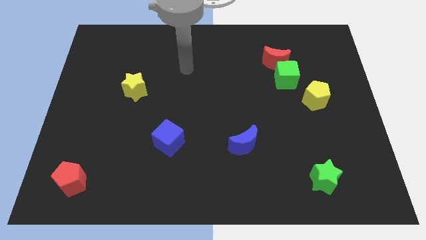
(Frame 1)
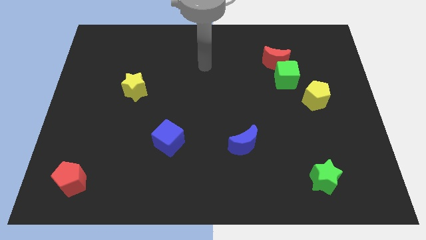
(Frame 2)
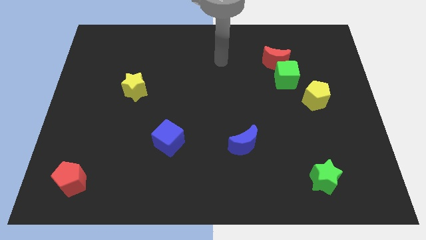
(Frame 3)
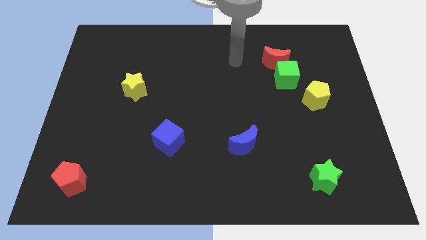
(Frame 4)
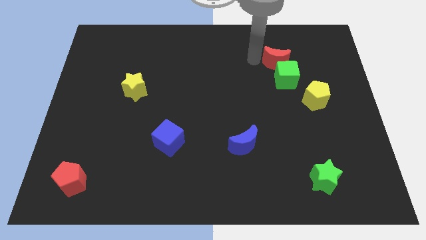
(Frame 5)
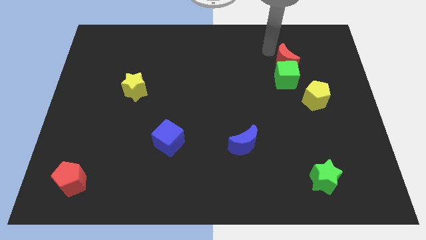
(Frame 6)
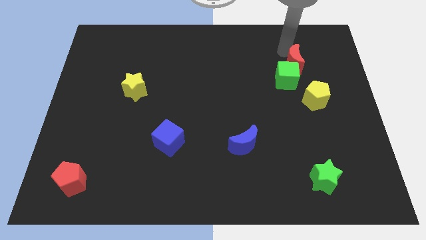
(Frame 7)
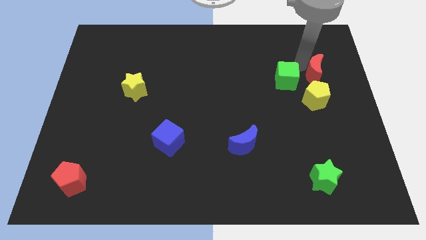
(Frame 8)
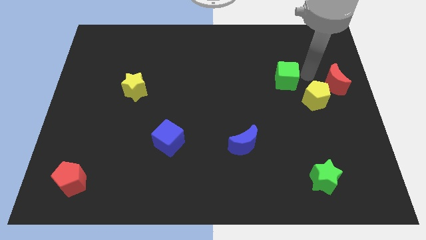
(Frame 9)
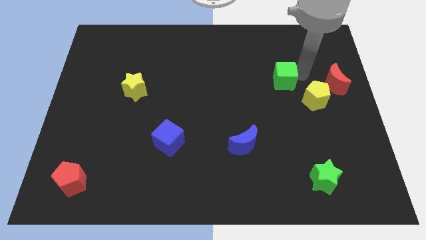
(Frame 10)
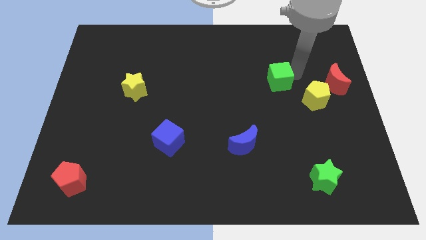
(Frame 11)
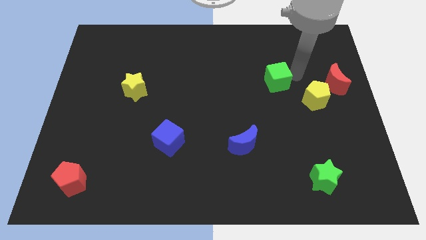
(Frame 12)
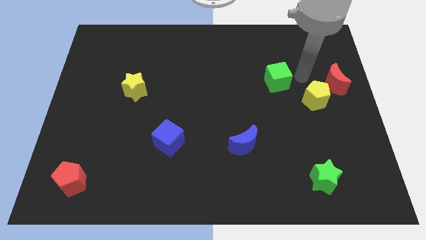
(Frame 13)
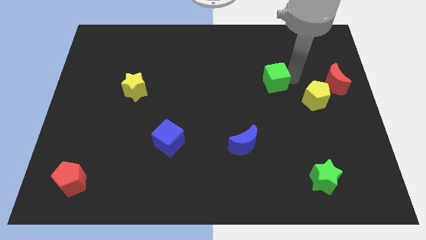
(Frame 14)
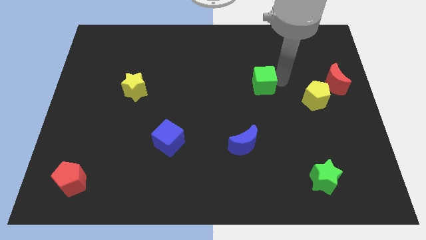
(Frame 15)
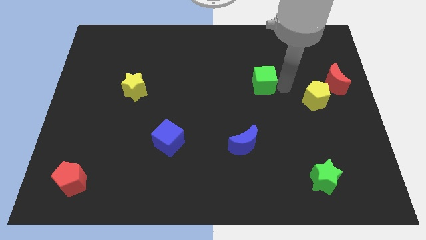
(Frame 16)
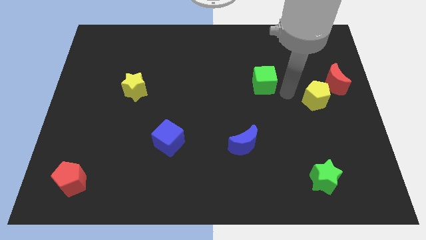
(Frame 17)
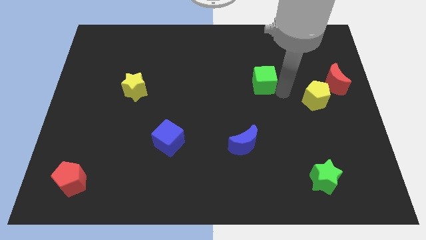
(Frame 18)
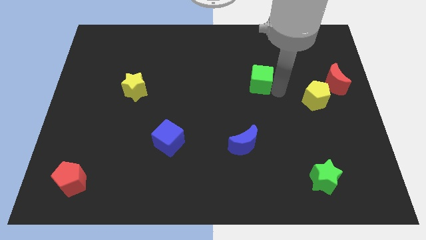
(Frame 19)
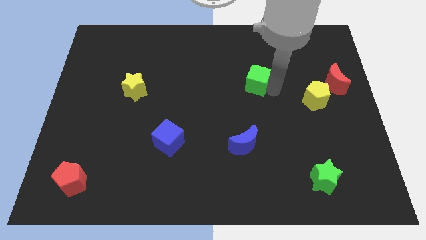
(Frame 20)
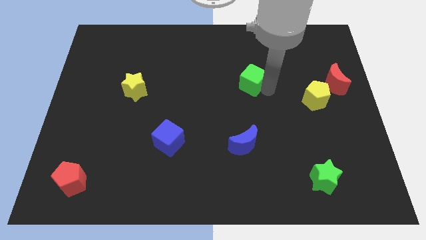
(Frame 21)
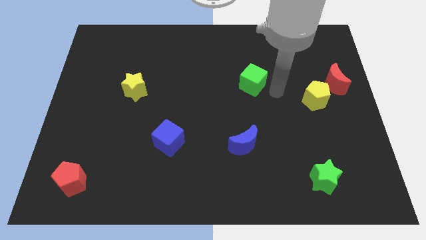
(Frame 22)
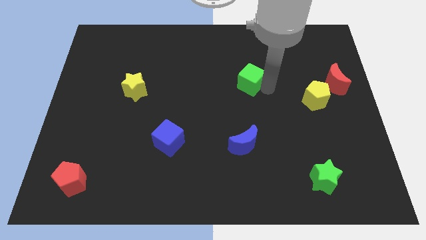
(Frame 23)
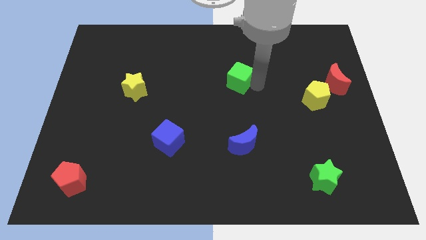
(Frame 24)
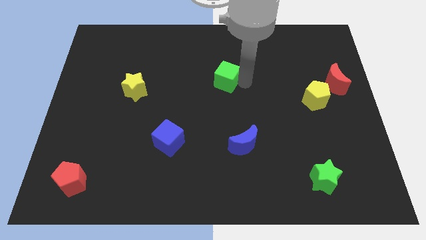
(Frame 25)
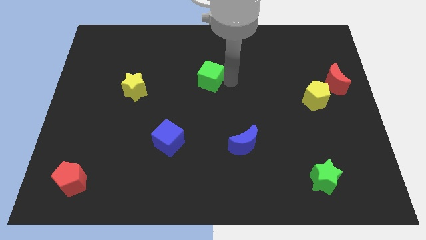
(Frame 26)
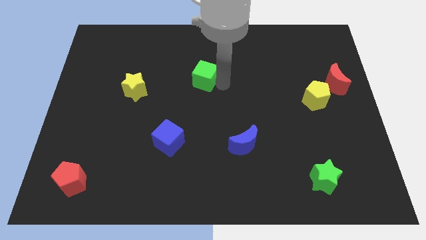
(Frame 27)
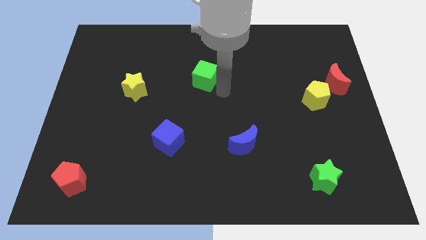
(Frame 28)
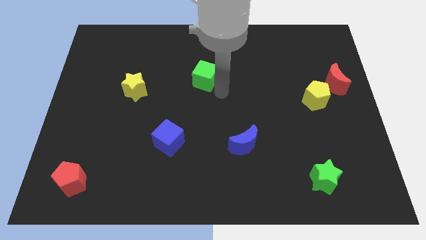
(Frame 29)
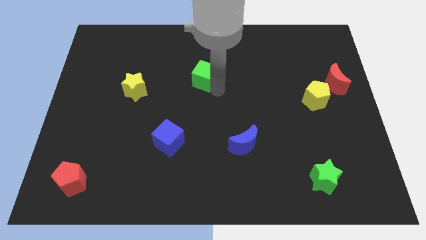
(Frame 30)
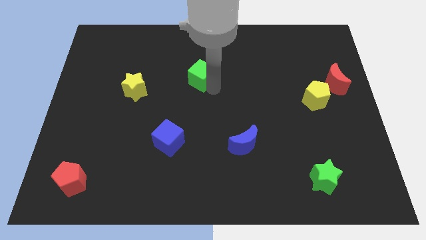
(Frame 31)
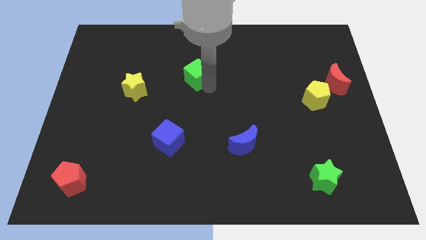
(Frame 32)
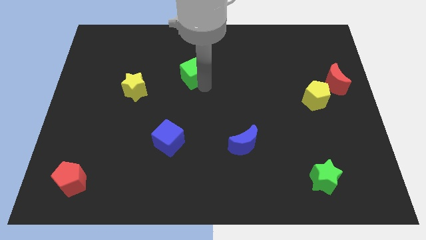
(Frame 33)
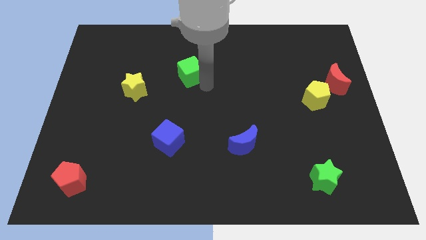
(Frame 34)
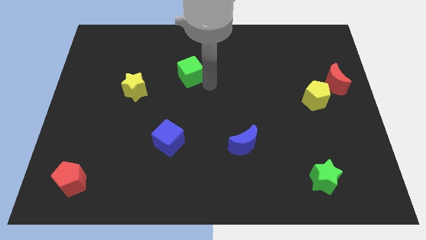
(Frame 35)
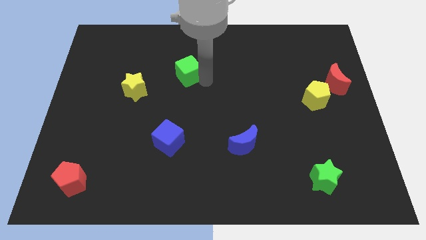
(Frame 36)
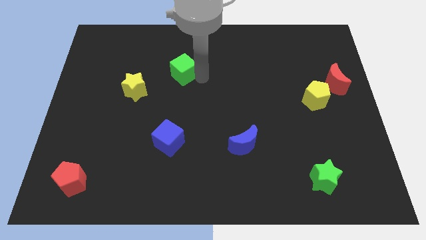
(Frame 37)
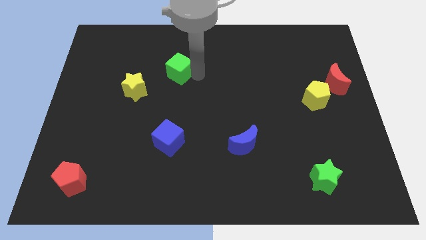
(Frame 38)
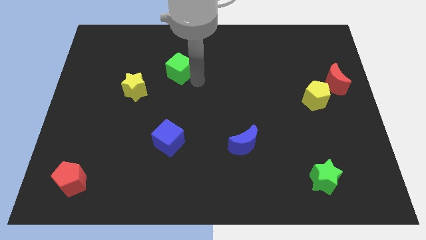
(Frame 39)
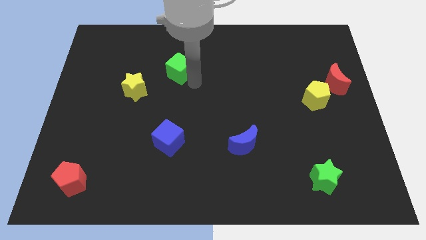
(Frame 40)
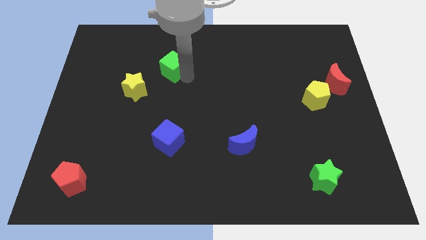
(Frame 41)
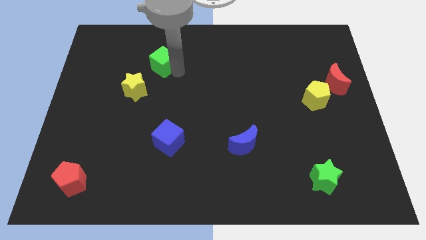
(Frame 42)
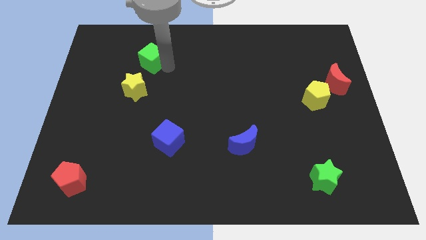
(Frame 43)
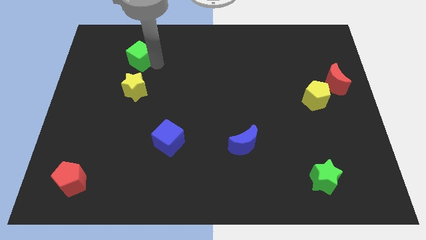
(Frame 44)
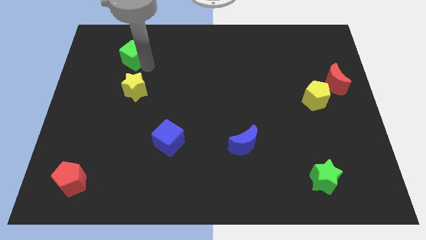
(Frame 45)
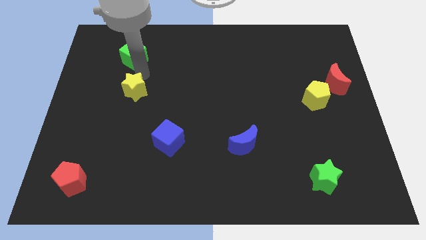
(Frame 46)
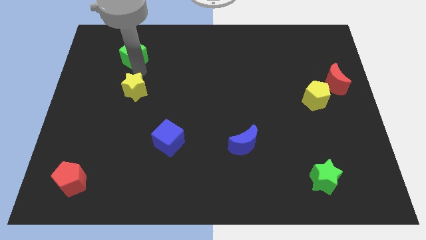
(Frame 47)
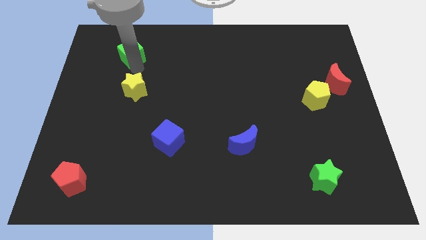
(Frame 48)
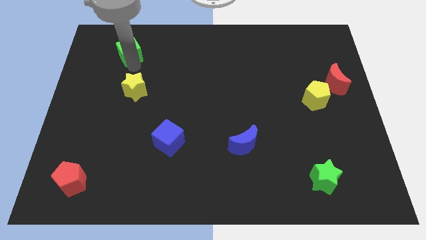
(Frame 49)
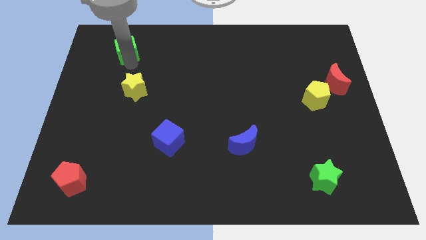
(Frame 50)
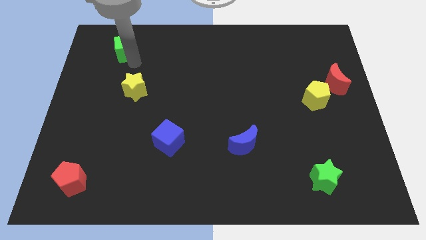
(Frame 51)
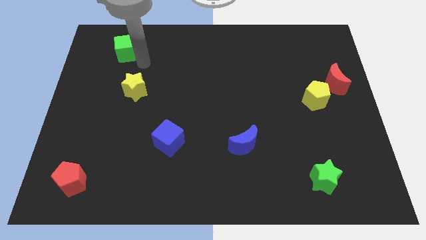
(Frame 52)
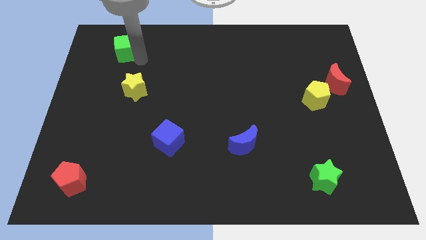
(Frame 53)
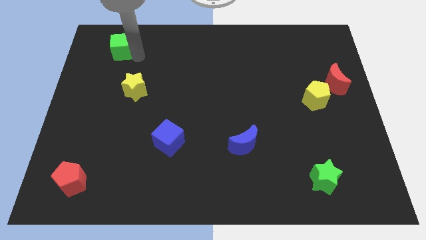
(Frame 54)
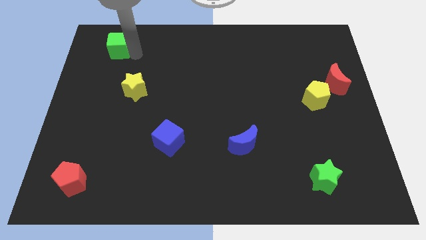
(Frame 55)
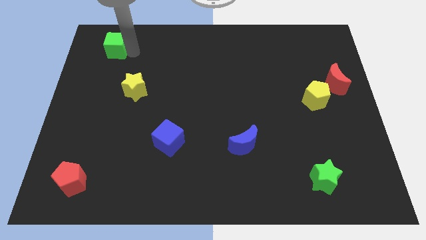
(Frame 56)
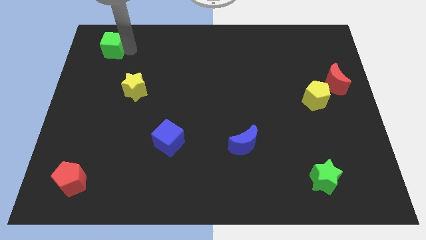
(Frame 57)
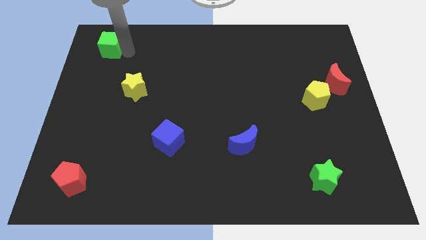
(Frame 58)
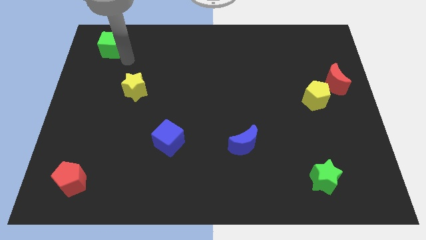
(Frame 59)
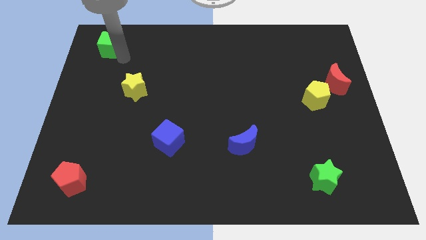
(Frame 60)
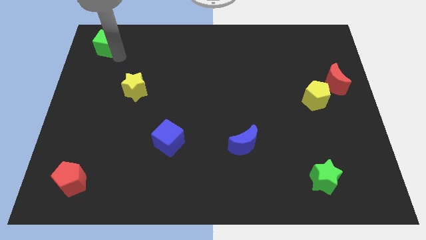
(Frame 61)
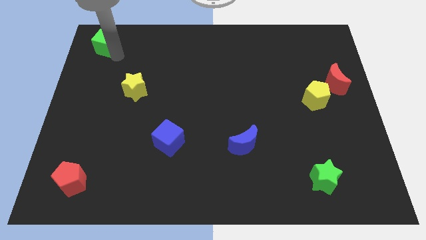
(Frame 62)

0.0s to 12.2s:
slide the green cube to the top left of the board
